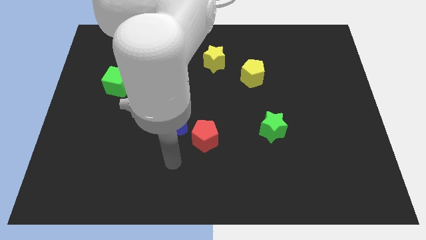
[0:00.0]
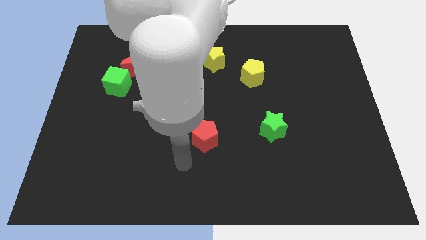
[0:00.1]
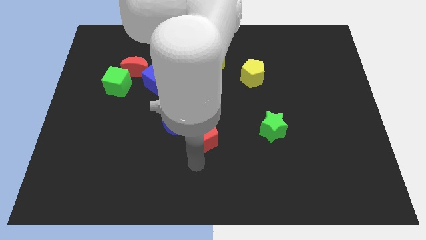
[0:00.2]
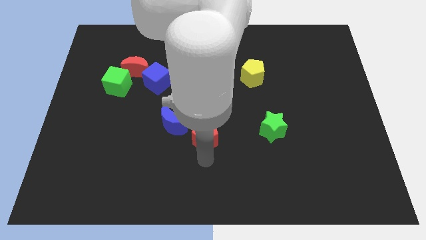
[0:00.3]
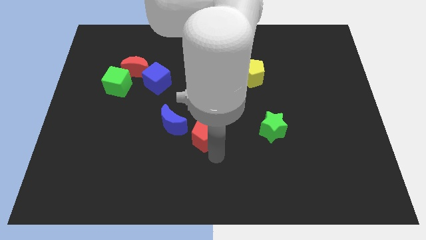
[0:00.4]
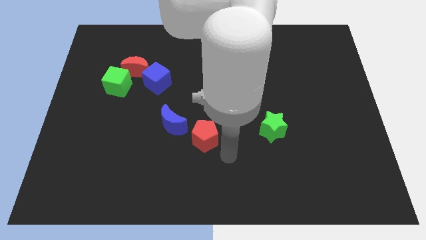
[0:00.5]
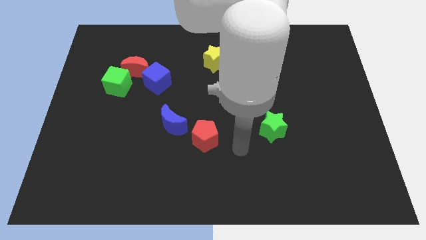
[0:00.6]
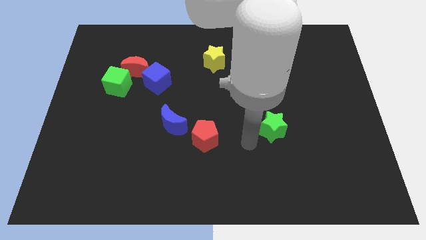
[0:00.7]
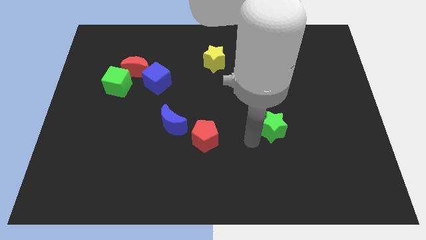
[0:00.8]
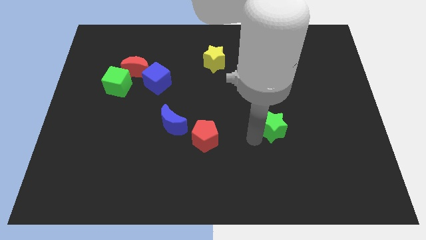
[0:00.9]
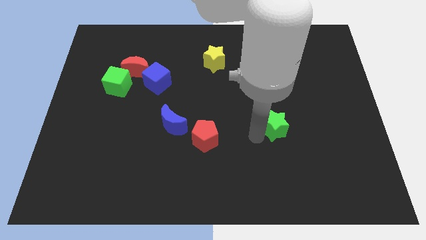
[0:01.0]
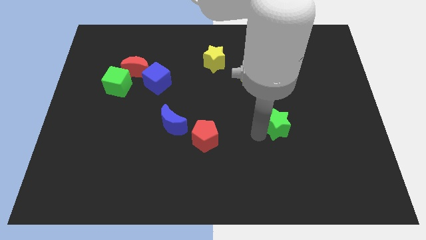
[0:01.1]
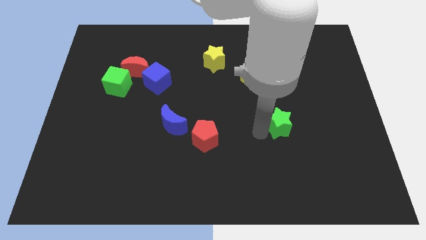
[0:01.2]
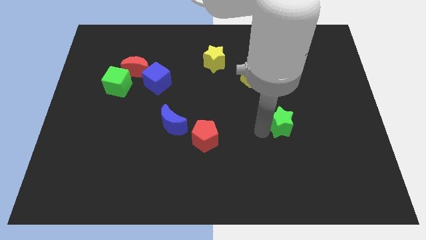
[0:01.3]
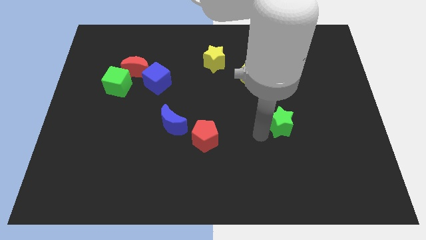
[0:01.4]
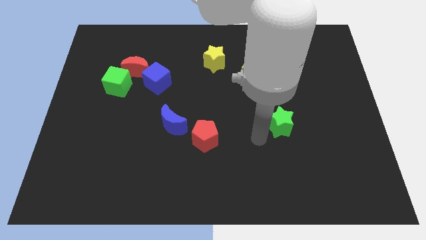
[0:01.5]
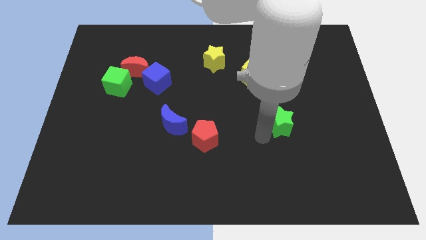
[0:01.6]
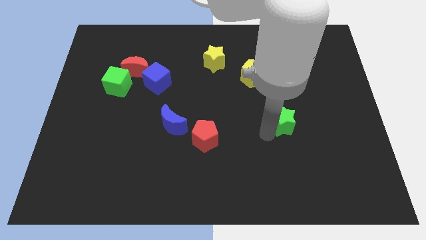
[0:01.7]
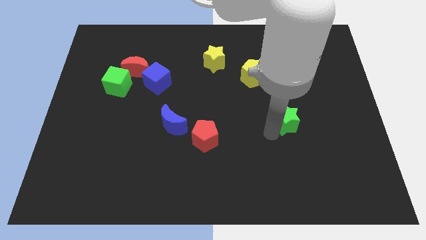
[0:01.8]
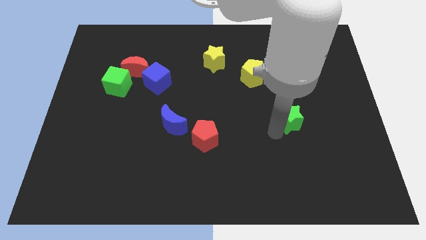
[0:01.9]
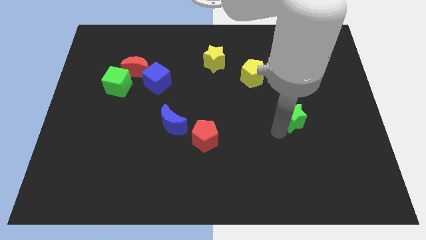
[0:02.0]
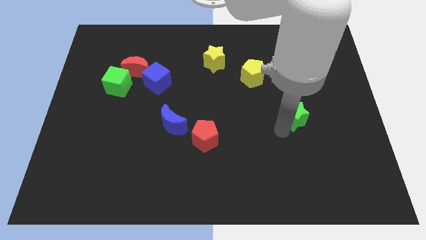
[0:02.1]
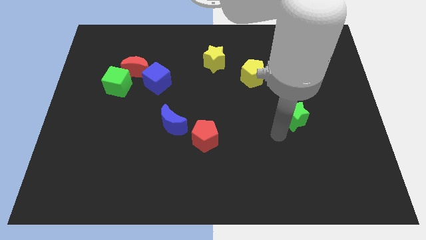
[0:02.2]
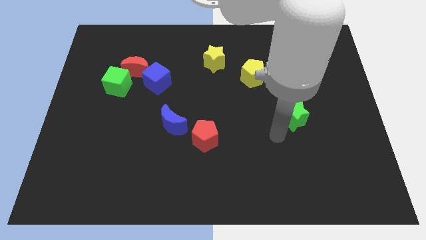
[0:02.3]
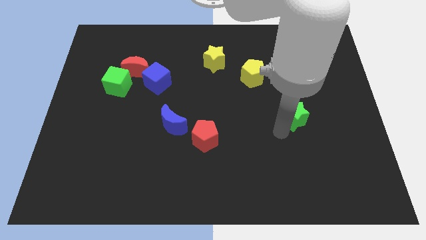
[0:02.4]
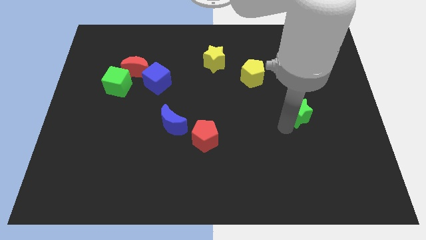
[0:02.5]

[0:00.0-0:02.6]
push the green star up and to the right diagonally somewhat

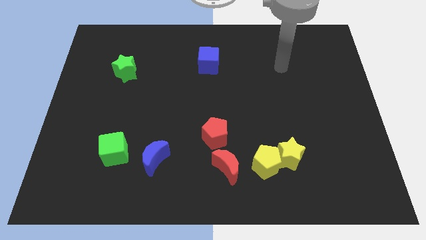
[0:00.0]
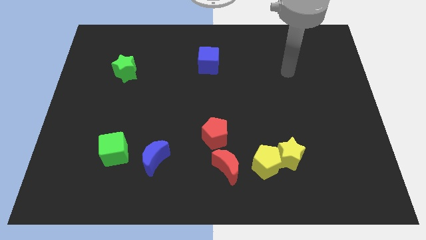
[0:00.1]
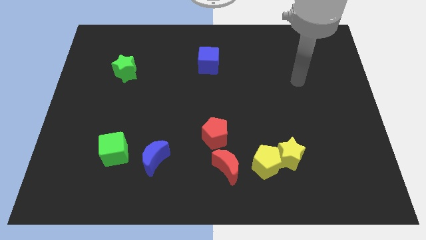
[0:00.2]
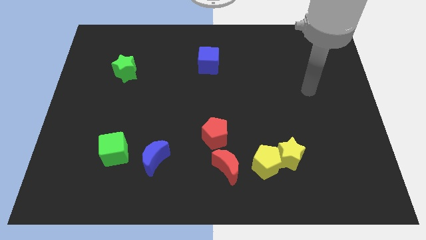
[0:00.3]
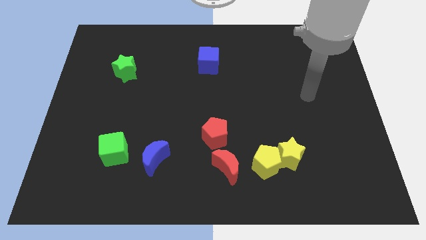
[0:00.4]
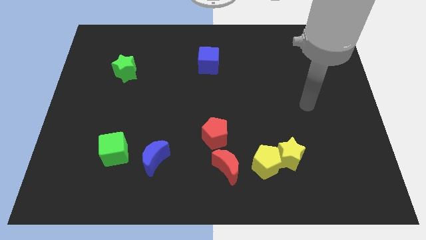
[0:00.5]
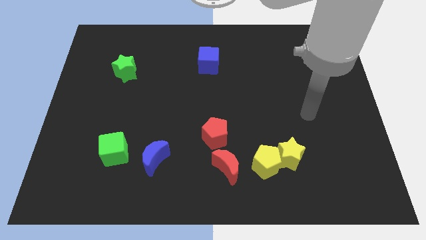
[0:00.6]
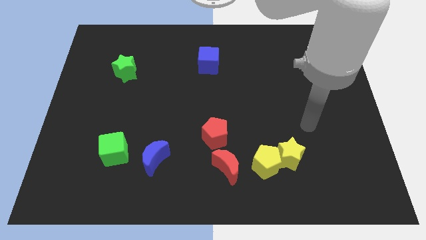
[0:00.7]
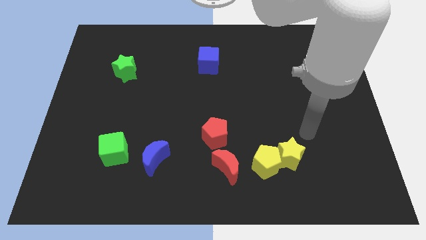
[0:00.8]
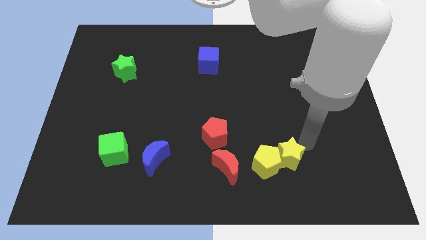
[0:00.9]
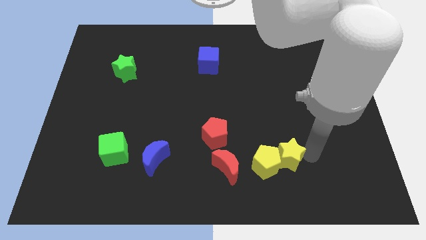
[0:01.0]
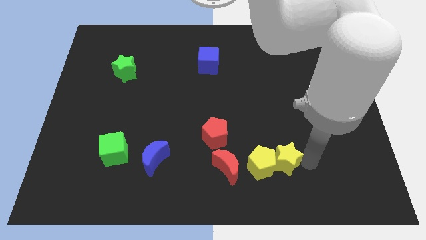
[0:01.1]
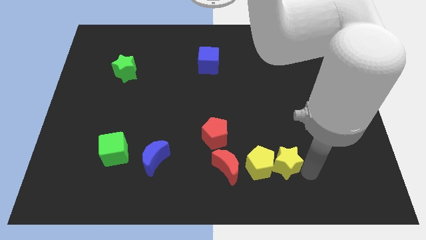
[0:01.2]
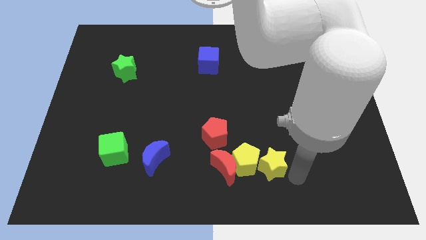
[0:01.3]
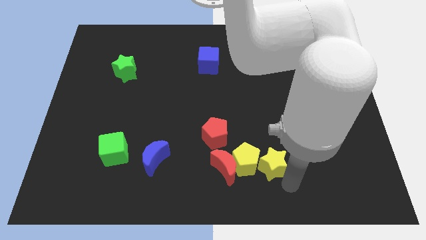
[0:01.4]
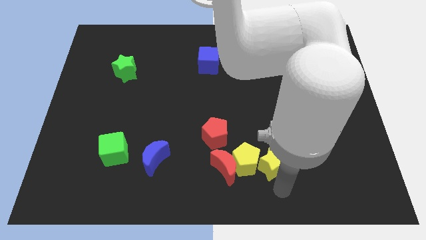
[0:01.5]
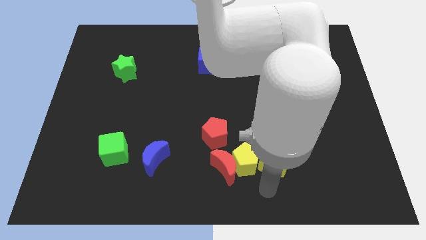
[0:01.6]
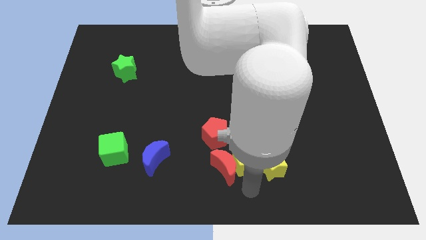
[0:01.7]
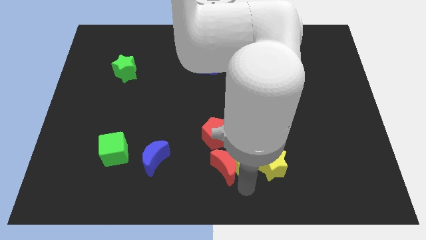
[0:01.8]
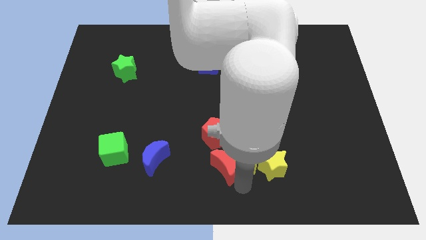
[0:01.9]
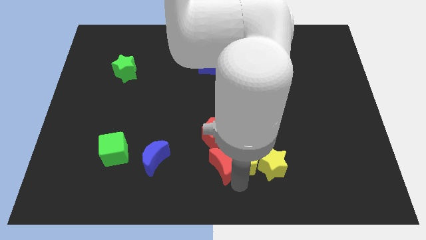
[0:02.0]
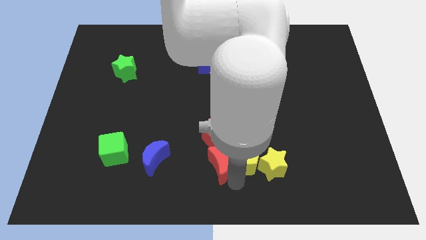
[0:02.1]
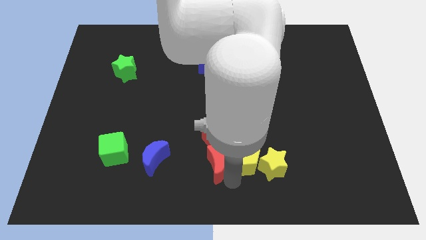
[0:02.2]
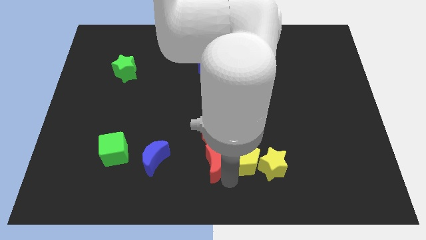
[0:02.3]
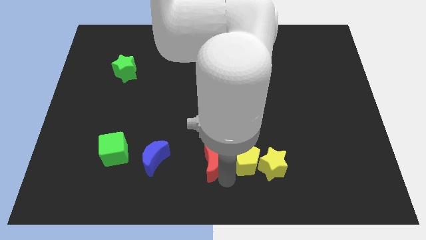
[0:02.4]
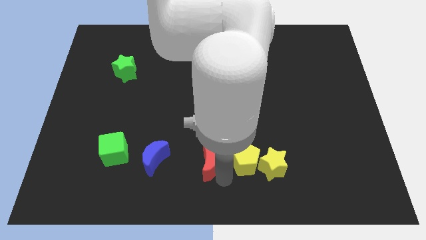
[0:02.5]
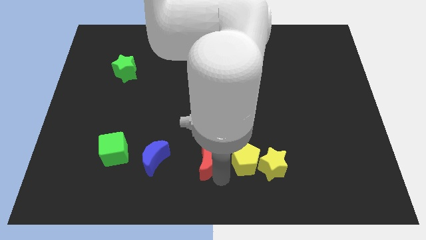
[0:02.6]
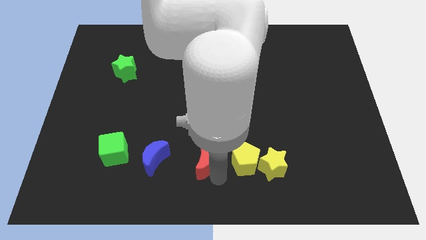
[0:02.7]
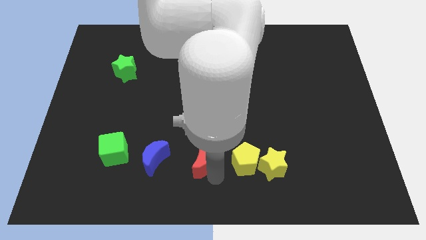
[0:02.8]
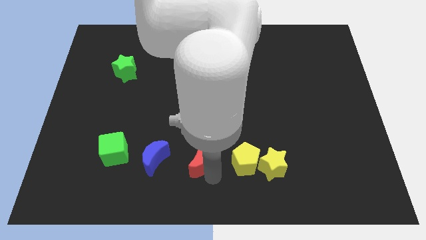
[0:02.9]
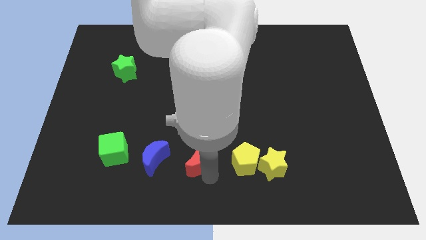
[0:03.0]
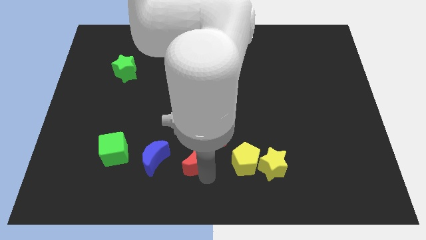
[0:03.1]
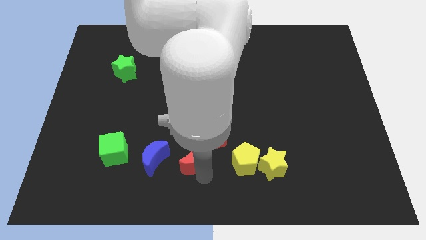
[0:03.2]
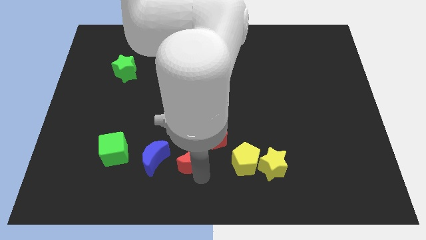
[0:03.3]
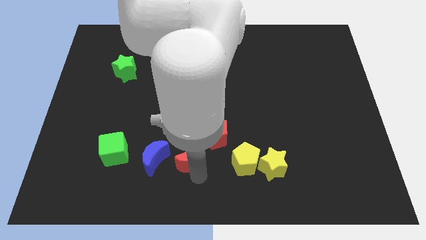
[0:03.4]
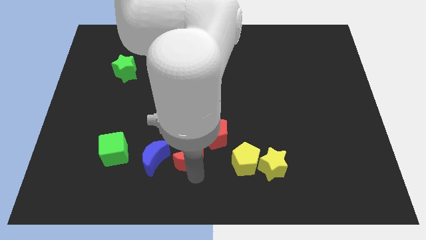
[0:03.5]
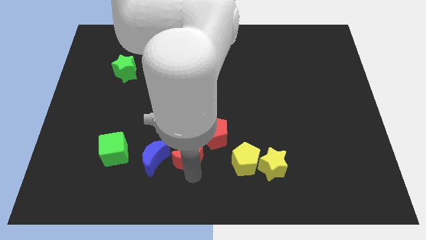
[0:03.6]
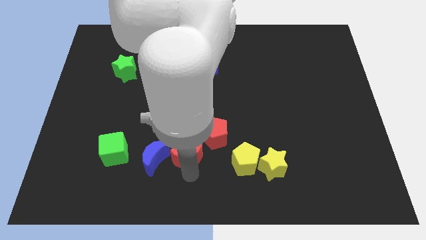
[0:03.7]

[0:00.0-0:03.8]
slightly push the red moon up and then to the left
